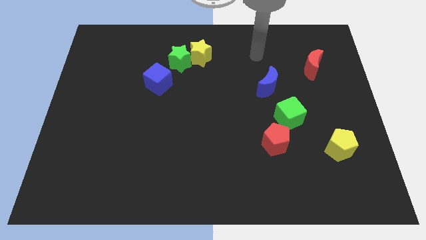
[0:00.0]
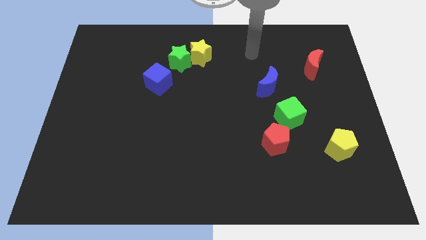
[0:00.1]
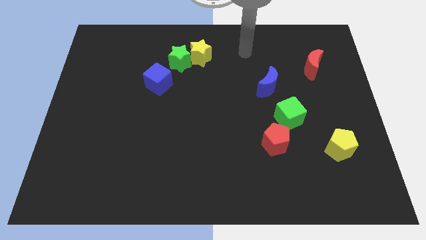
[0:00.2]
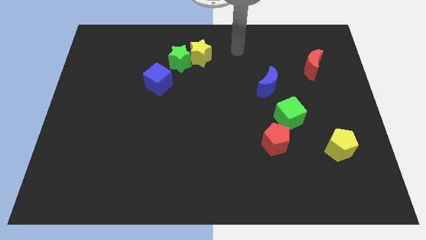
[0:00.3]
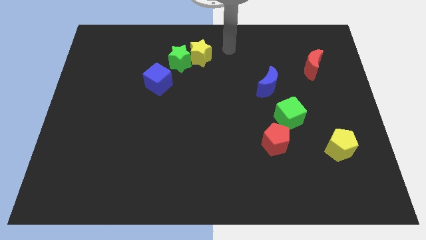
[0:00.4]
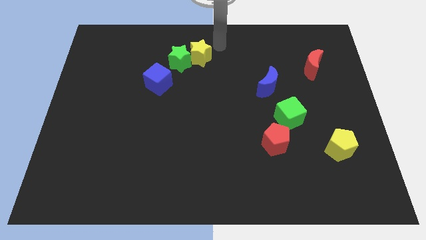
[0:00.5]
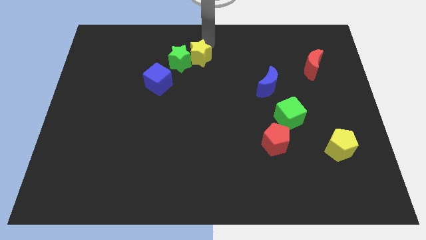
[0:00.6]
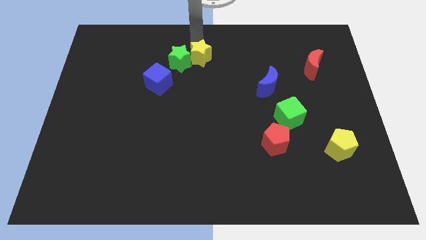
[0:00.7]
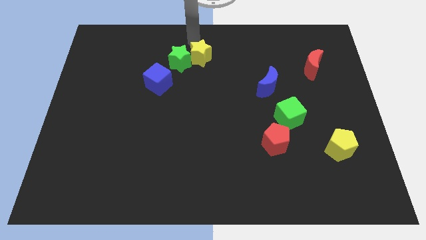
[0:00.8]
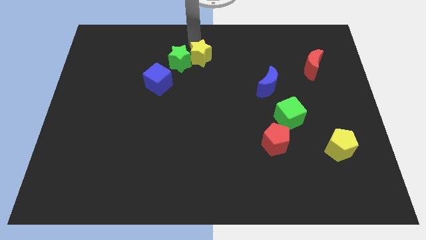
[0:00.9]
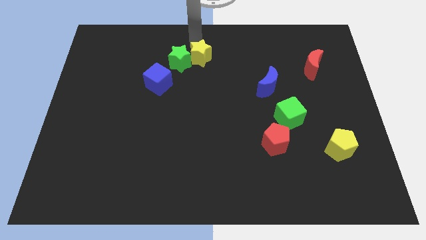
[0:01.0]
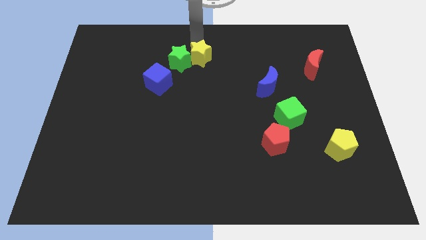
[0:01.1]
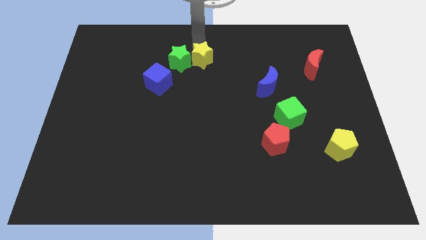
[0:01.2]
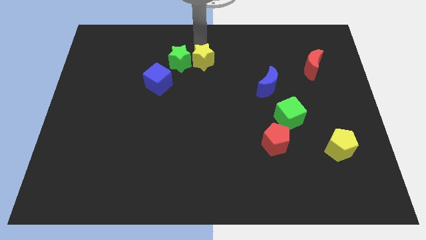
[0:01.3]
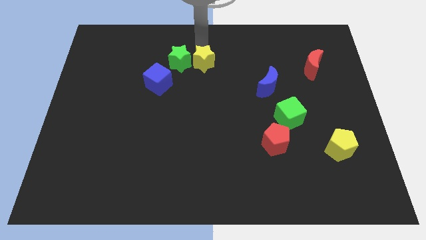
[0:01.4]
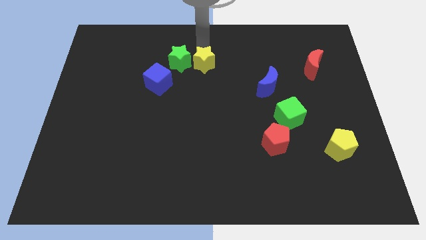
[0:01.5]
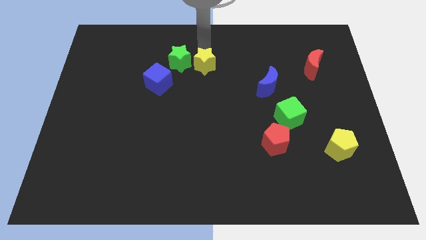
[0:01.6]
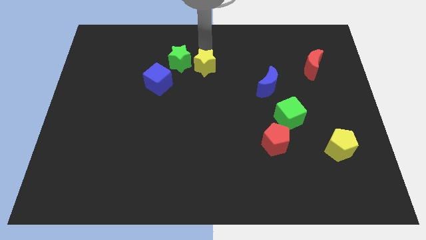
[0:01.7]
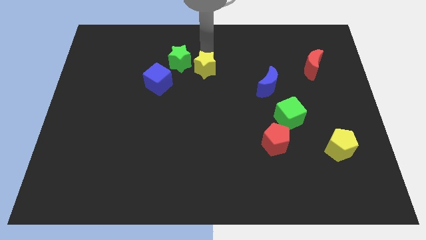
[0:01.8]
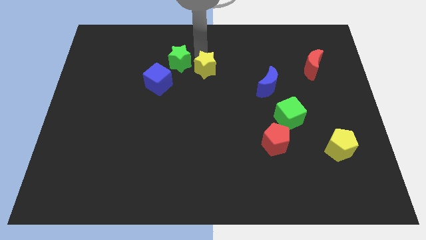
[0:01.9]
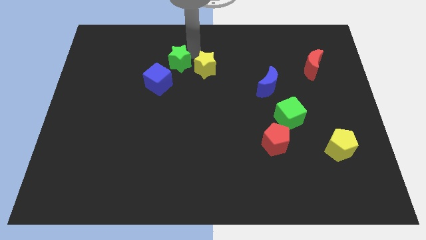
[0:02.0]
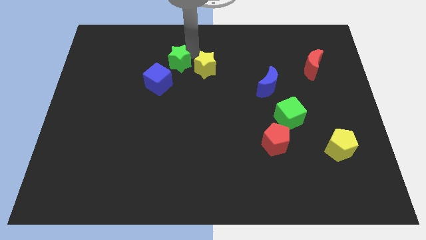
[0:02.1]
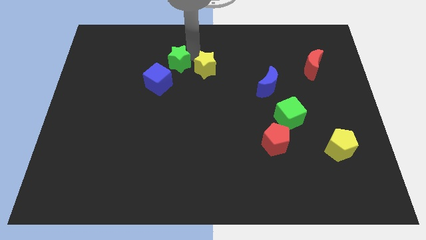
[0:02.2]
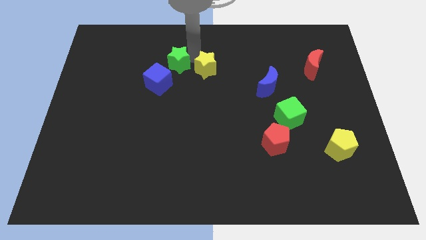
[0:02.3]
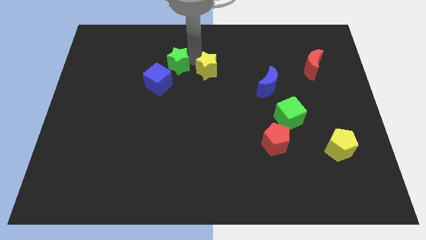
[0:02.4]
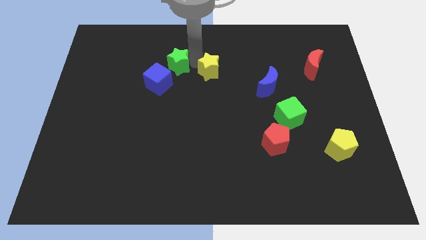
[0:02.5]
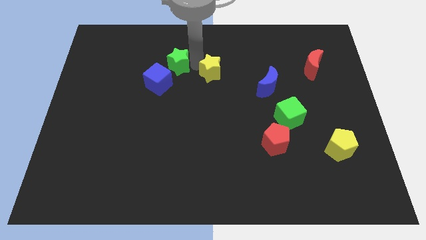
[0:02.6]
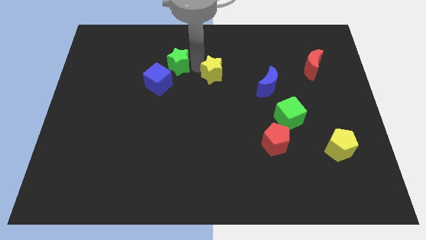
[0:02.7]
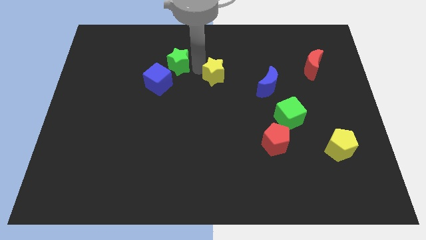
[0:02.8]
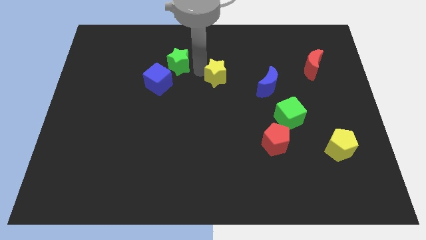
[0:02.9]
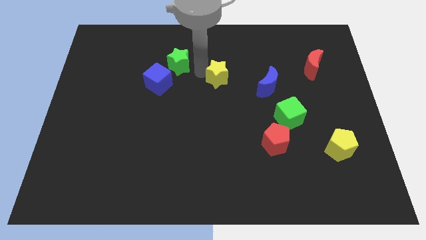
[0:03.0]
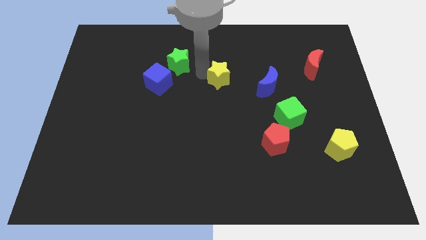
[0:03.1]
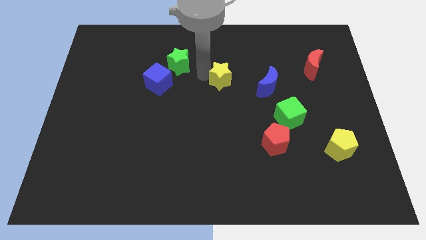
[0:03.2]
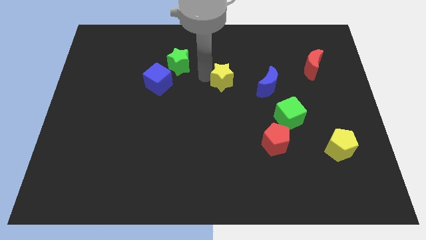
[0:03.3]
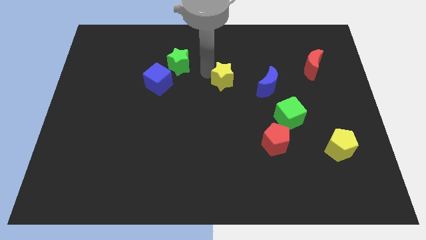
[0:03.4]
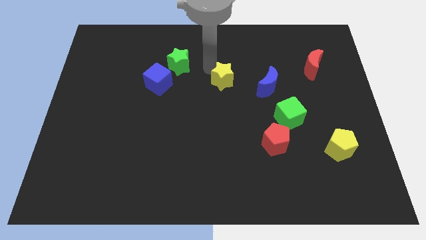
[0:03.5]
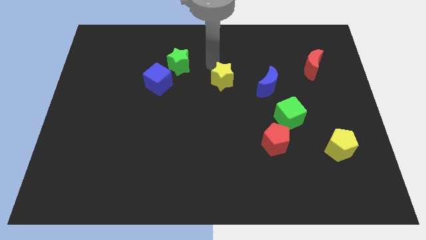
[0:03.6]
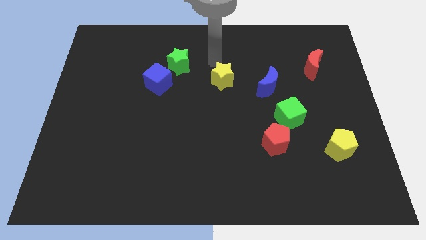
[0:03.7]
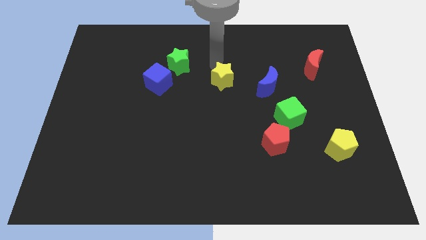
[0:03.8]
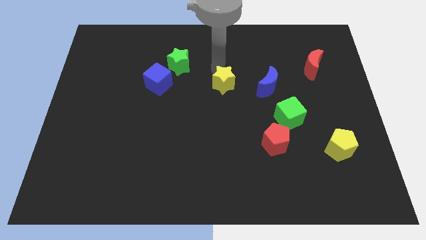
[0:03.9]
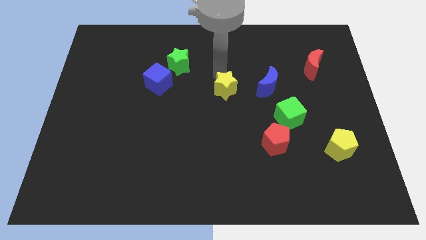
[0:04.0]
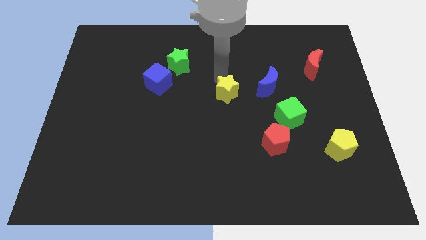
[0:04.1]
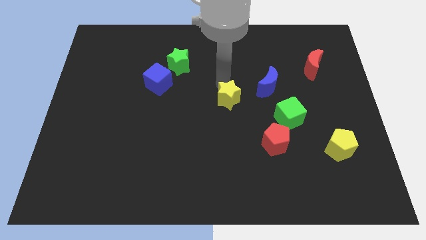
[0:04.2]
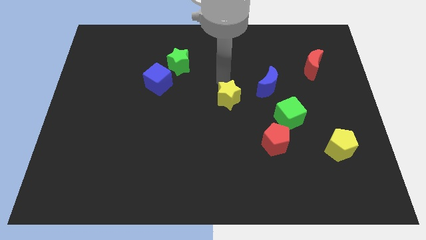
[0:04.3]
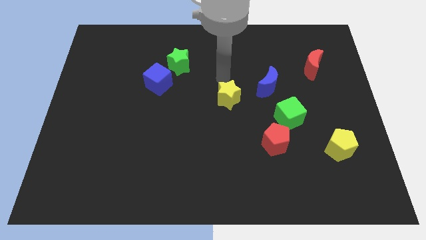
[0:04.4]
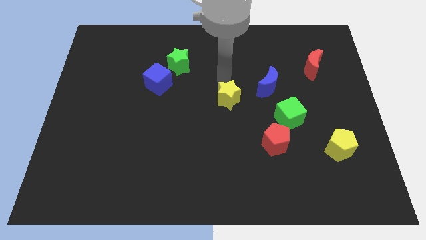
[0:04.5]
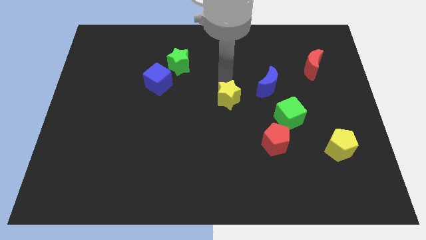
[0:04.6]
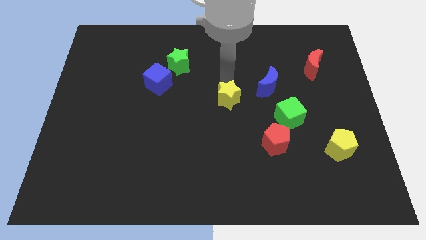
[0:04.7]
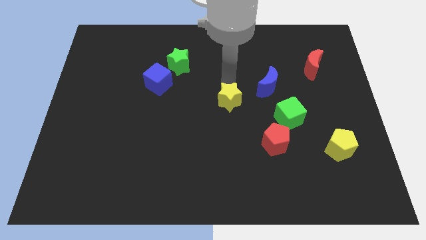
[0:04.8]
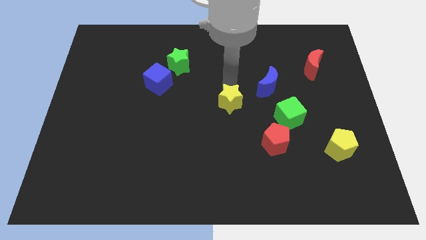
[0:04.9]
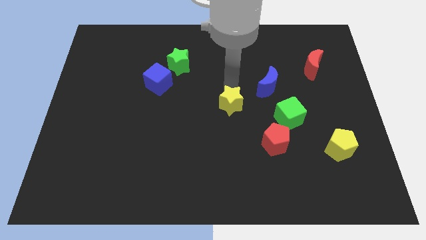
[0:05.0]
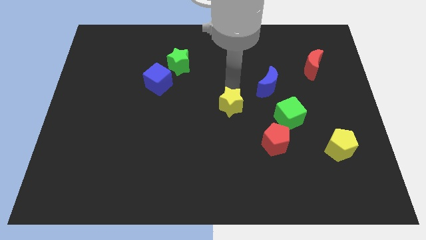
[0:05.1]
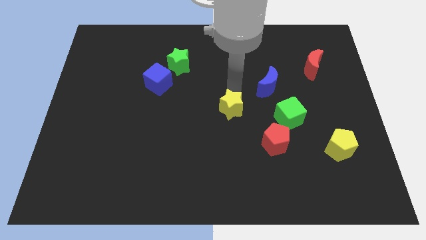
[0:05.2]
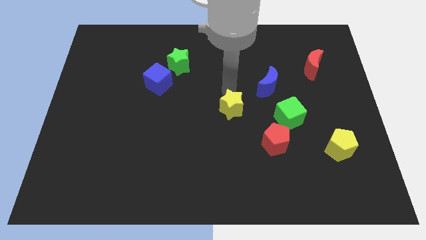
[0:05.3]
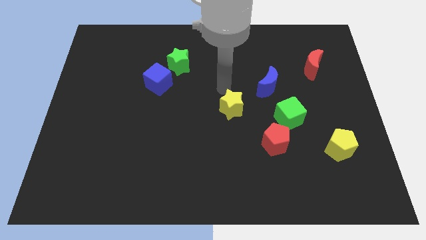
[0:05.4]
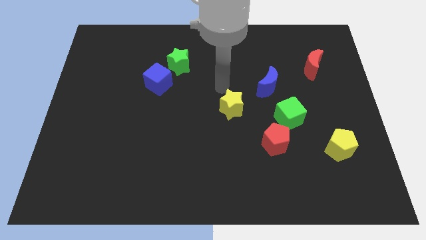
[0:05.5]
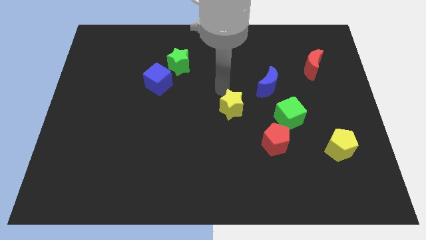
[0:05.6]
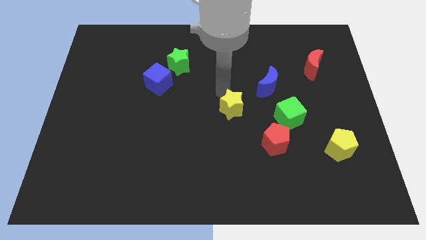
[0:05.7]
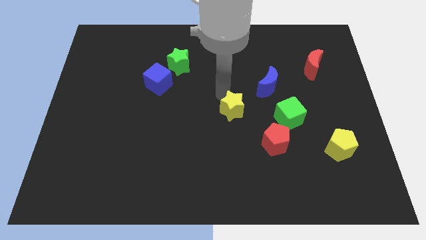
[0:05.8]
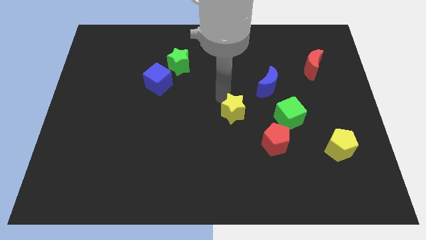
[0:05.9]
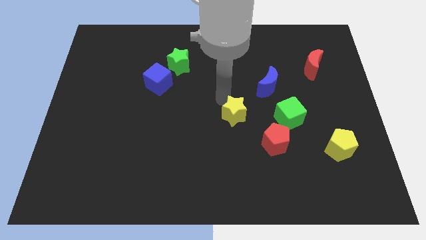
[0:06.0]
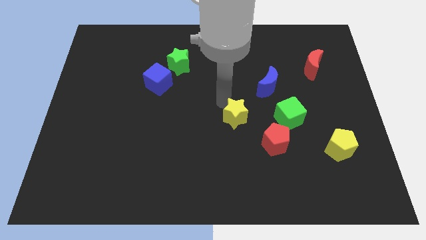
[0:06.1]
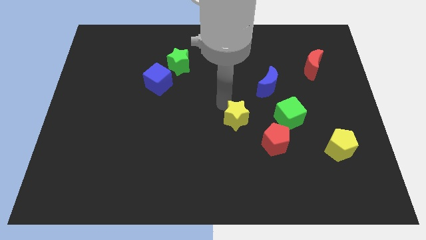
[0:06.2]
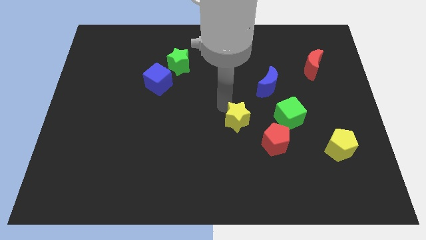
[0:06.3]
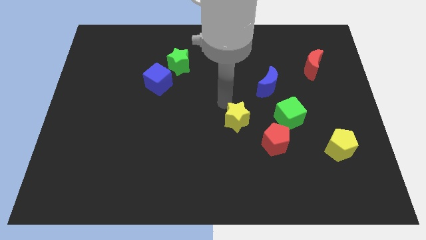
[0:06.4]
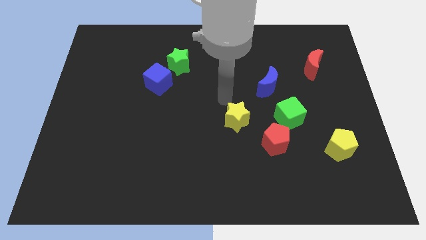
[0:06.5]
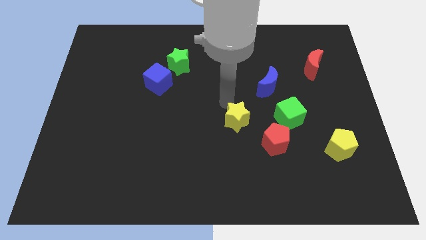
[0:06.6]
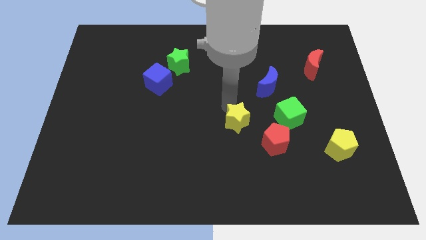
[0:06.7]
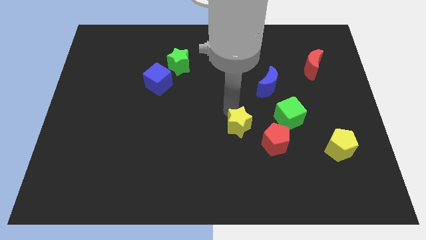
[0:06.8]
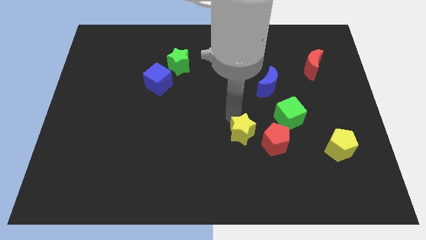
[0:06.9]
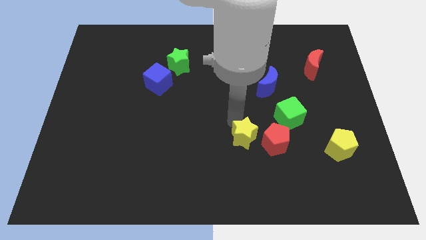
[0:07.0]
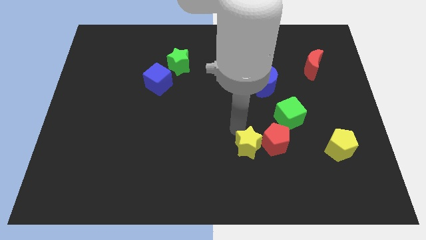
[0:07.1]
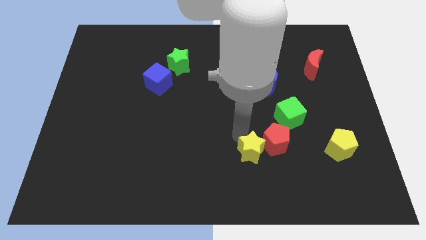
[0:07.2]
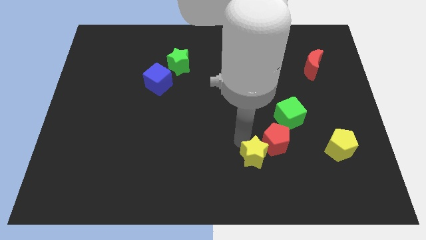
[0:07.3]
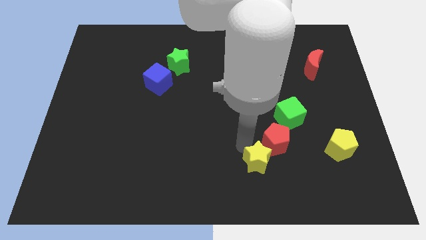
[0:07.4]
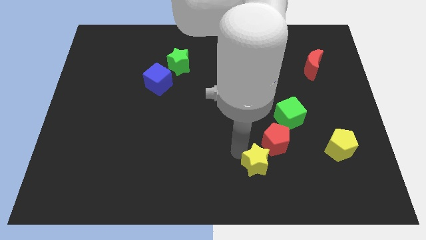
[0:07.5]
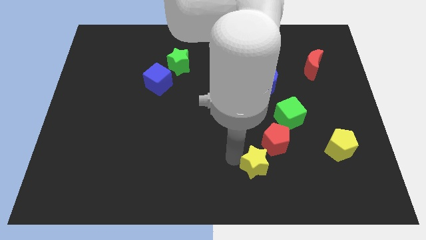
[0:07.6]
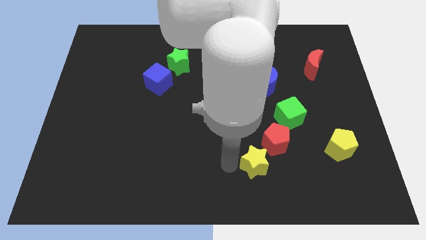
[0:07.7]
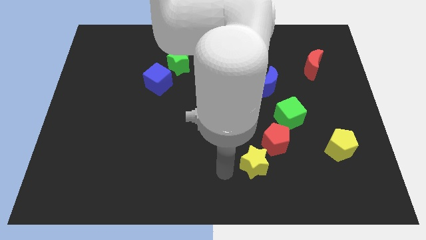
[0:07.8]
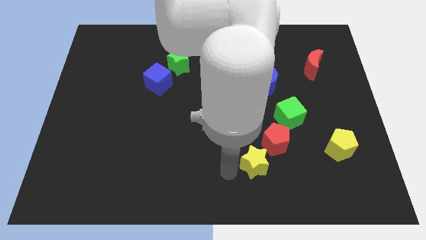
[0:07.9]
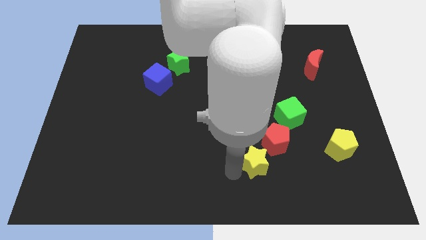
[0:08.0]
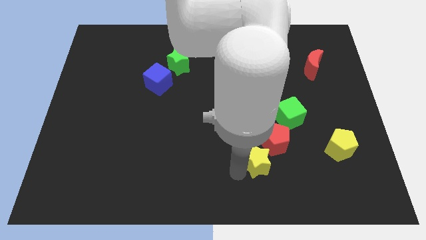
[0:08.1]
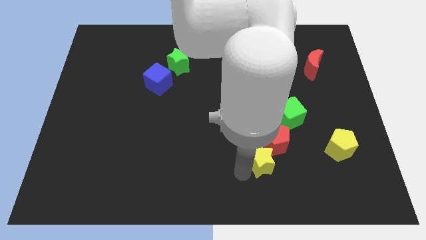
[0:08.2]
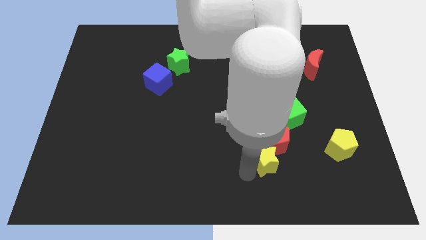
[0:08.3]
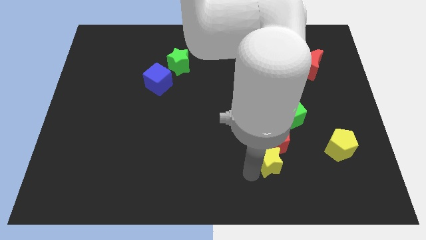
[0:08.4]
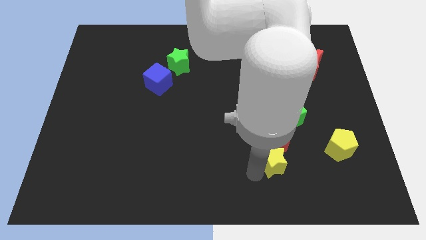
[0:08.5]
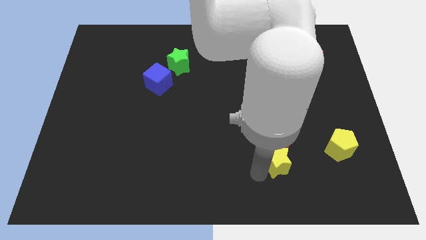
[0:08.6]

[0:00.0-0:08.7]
move the yellow star to the bottom side of the green cube
